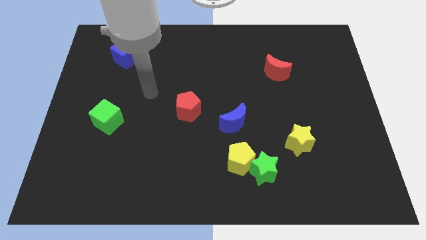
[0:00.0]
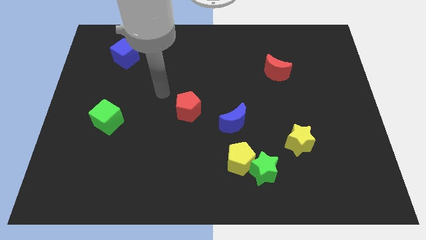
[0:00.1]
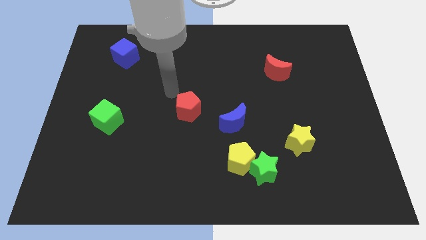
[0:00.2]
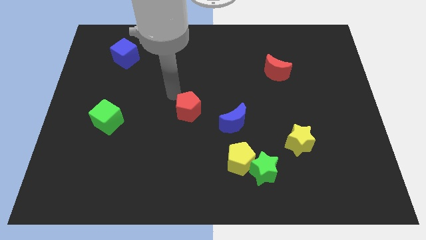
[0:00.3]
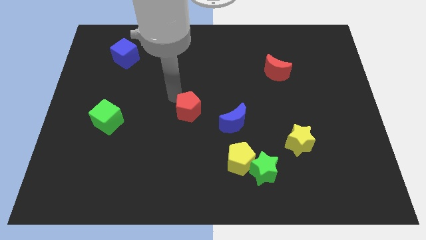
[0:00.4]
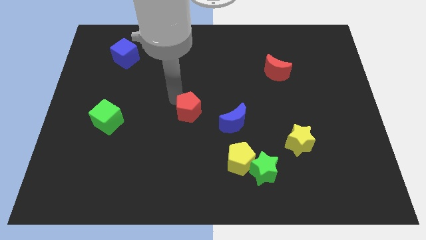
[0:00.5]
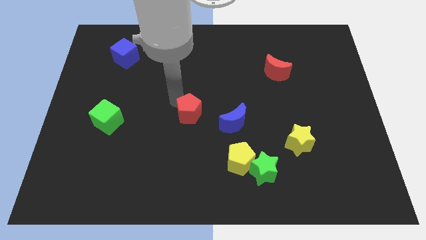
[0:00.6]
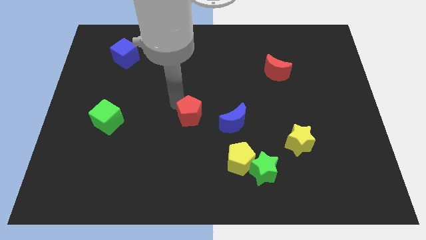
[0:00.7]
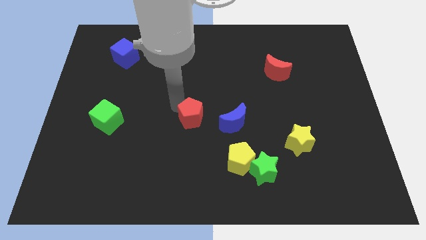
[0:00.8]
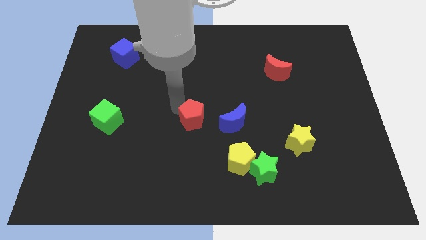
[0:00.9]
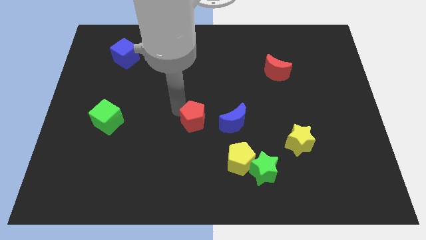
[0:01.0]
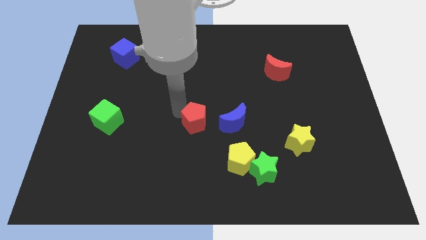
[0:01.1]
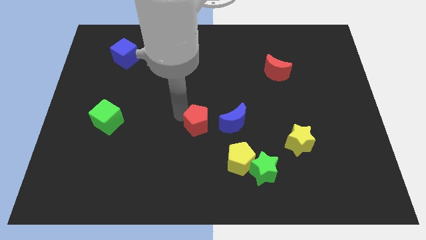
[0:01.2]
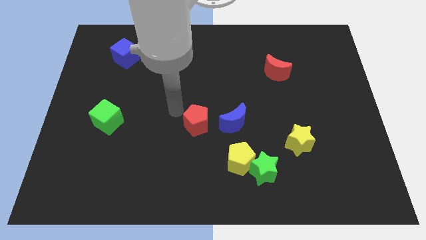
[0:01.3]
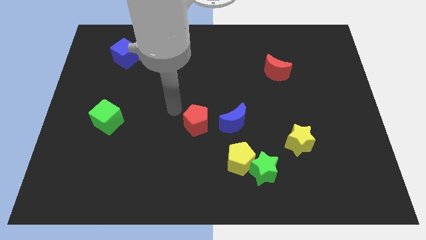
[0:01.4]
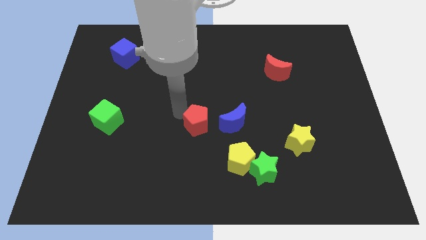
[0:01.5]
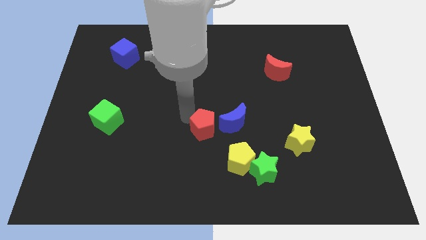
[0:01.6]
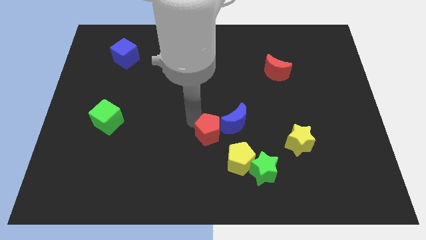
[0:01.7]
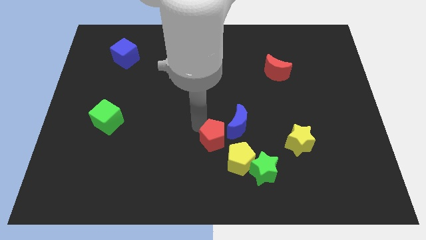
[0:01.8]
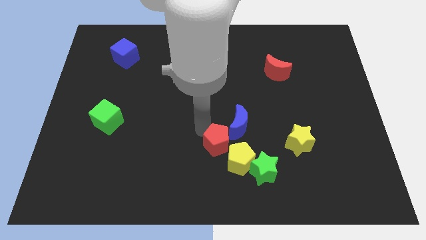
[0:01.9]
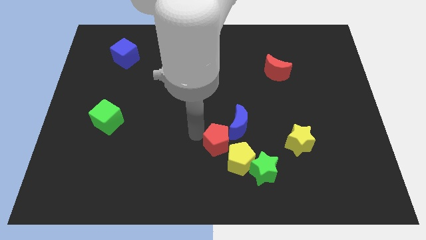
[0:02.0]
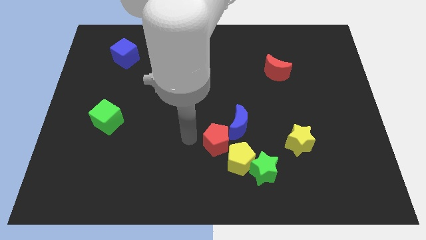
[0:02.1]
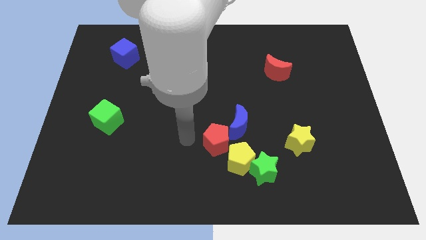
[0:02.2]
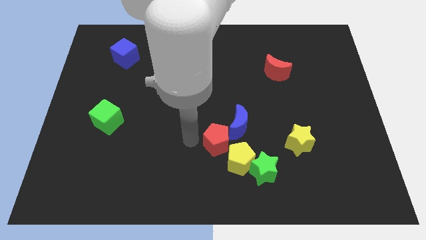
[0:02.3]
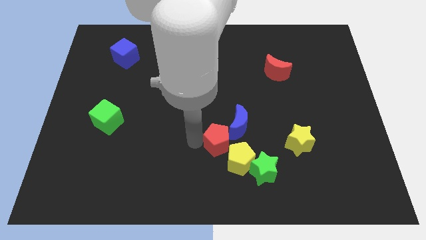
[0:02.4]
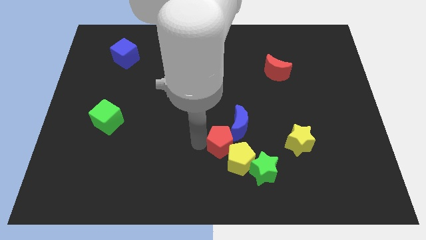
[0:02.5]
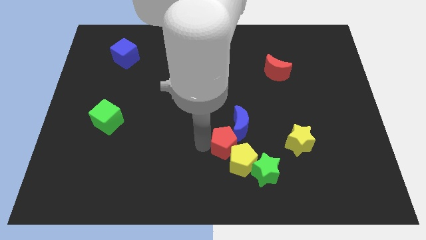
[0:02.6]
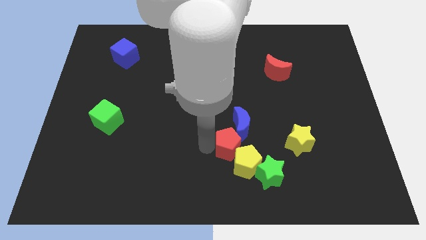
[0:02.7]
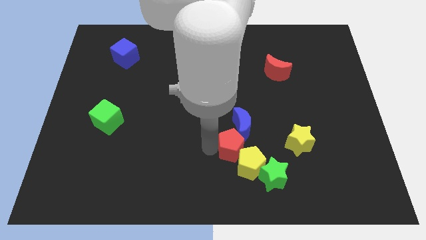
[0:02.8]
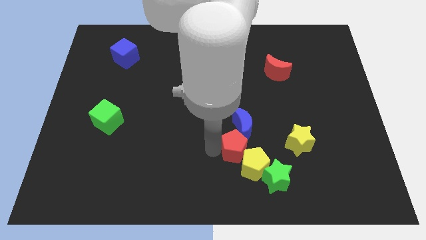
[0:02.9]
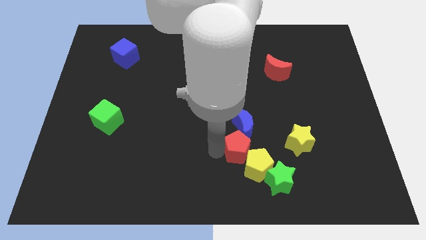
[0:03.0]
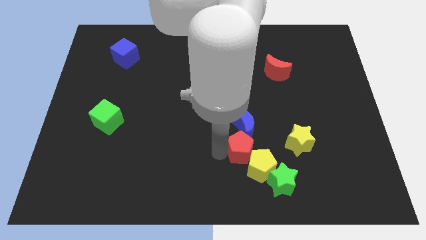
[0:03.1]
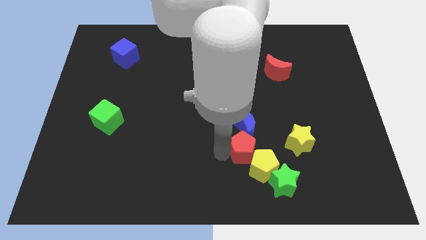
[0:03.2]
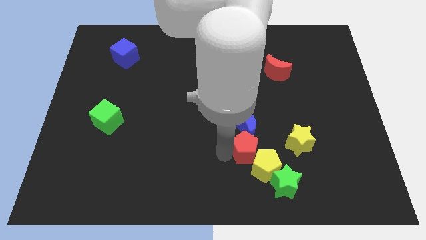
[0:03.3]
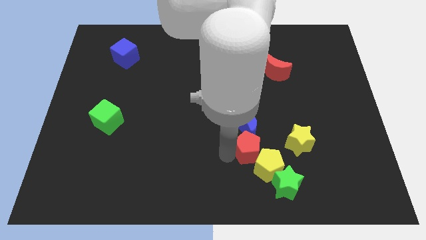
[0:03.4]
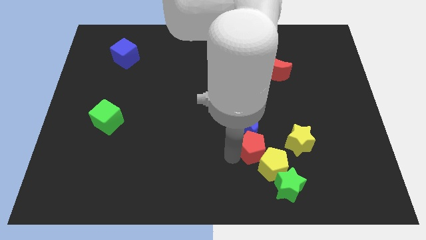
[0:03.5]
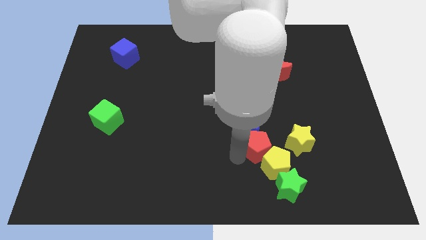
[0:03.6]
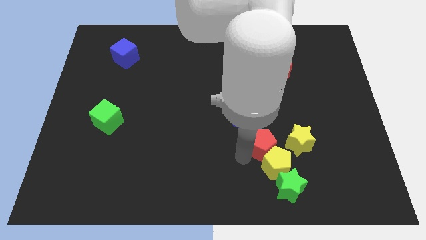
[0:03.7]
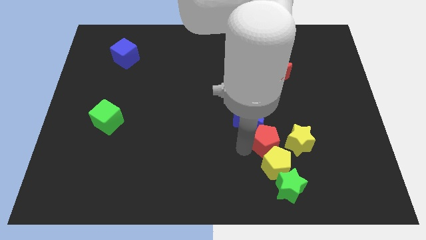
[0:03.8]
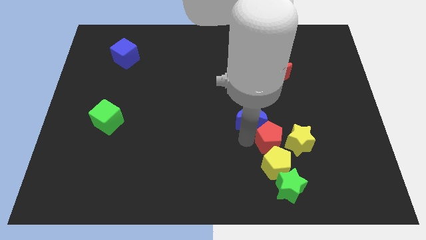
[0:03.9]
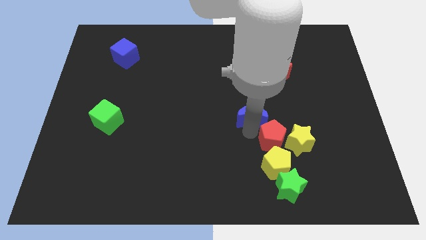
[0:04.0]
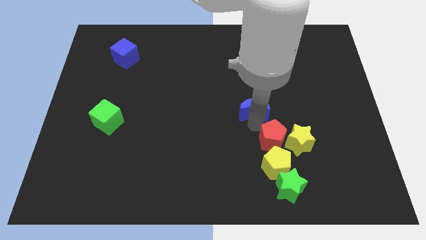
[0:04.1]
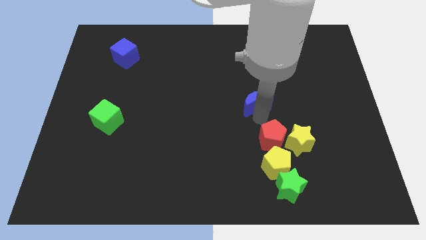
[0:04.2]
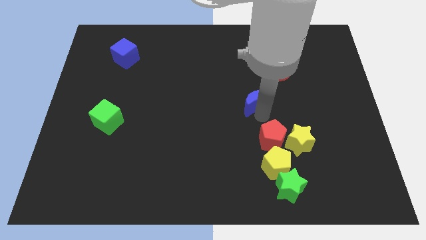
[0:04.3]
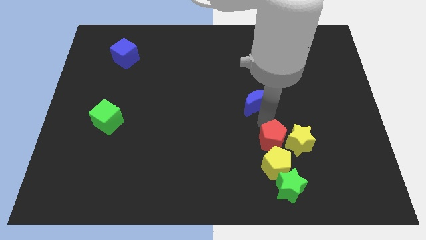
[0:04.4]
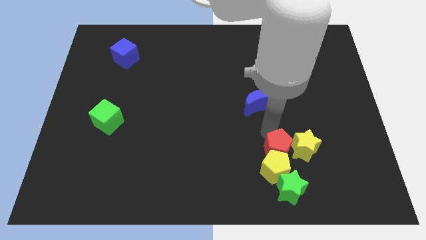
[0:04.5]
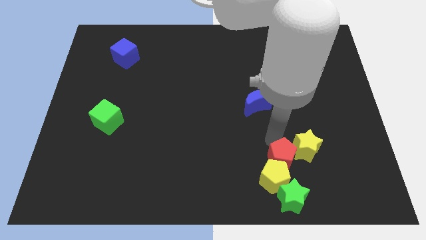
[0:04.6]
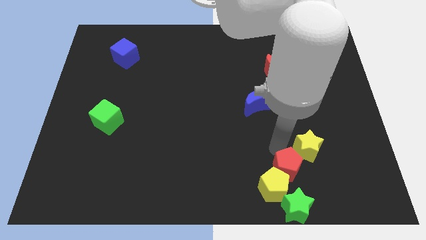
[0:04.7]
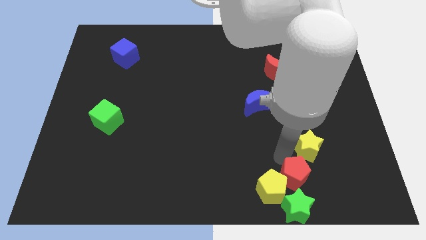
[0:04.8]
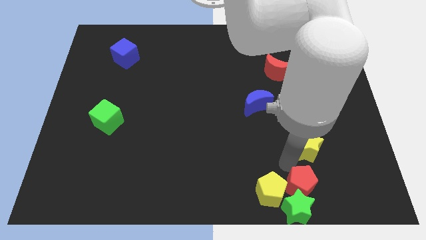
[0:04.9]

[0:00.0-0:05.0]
put the red pentagon to the green star

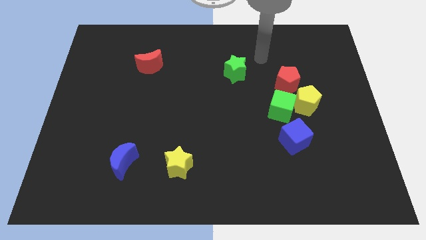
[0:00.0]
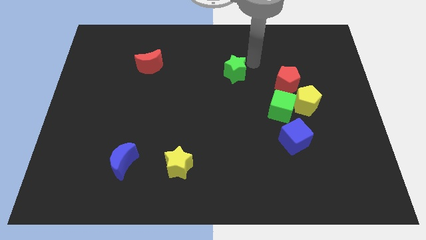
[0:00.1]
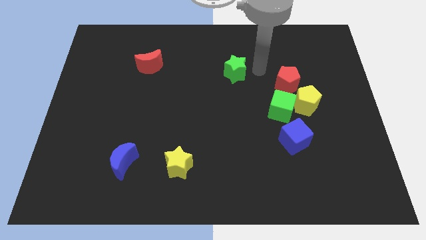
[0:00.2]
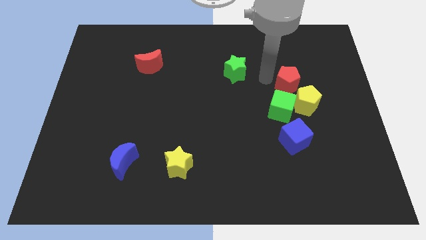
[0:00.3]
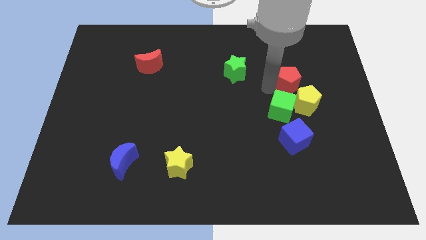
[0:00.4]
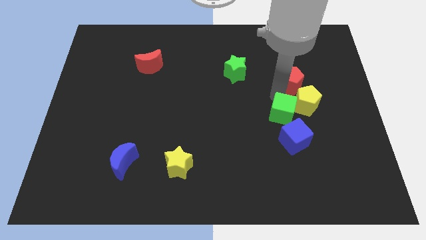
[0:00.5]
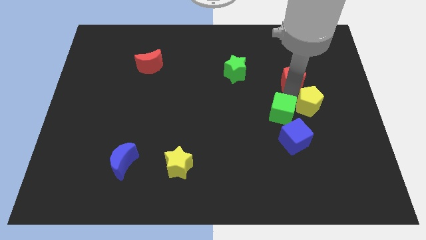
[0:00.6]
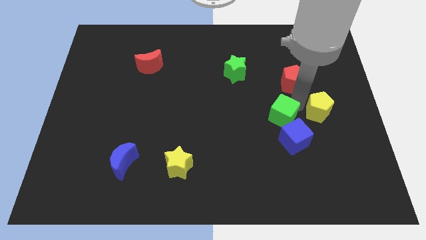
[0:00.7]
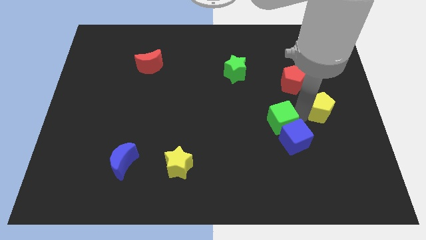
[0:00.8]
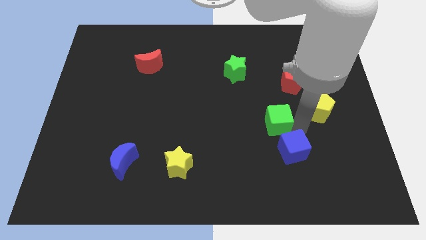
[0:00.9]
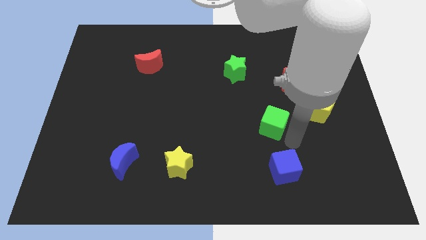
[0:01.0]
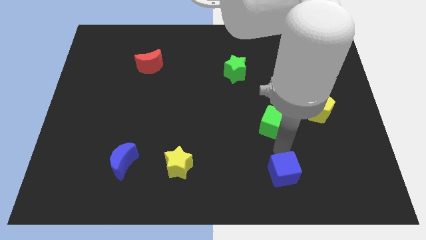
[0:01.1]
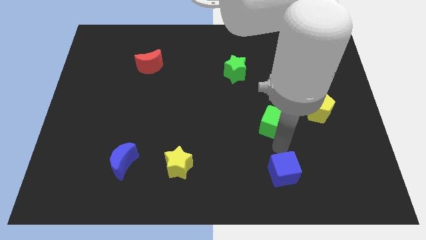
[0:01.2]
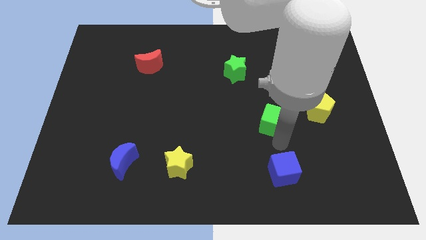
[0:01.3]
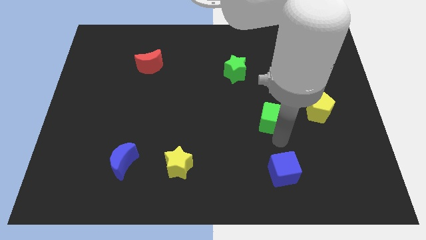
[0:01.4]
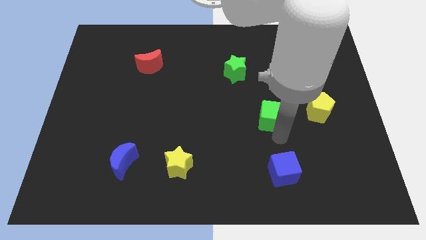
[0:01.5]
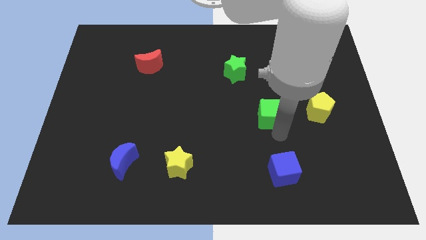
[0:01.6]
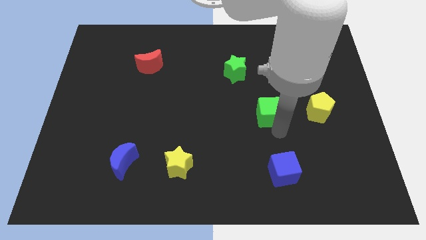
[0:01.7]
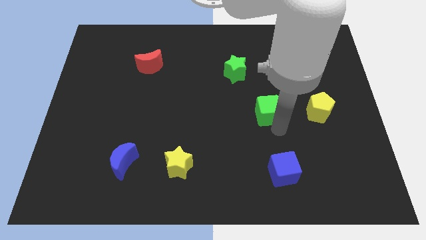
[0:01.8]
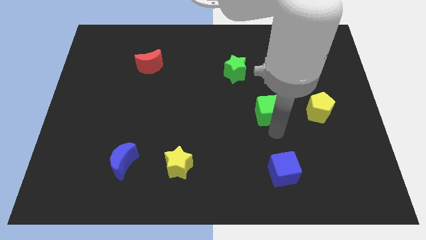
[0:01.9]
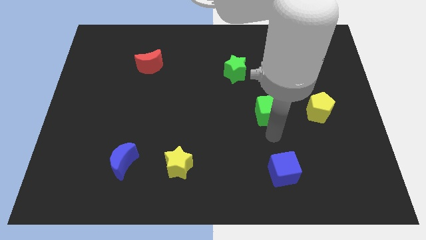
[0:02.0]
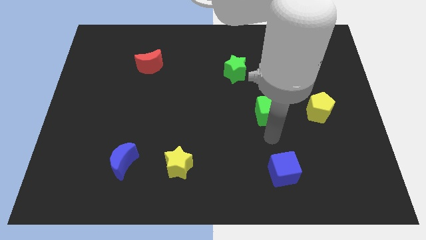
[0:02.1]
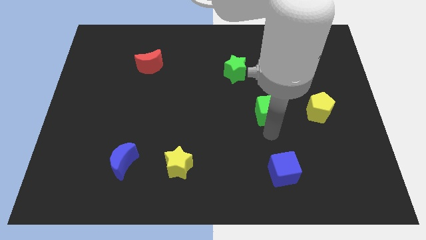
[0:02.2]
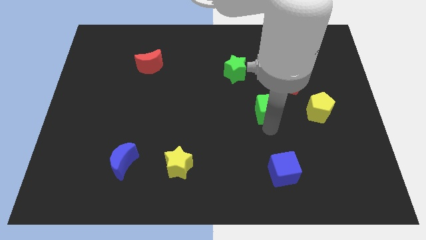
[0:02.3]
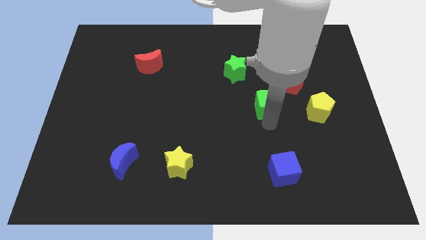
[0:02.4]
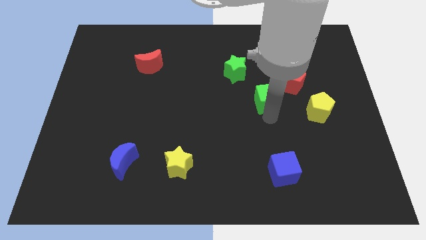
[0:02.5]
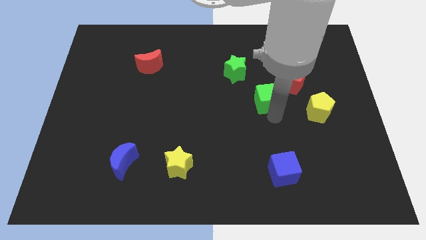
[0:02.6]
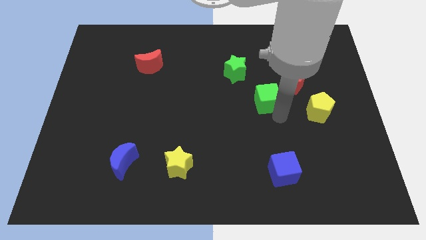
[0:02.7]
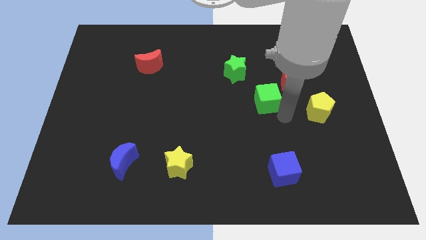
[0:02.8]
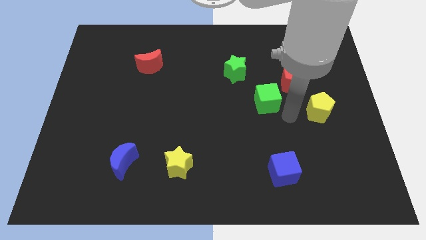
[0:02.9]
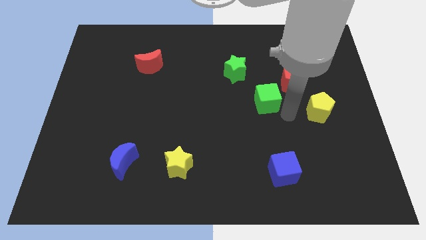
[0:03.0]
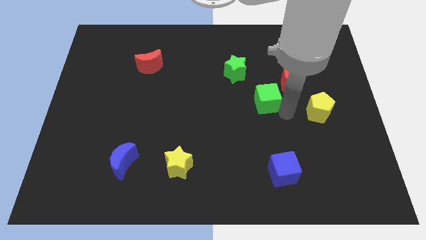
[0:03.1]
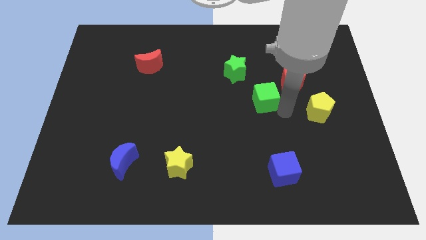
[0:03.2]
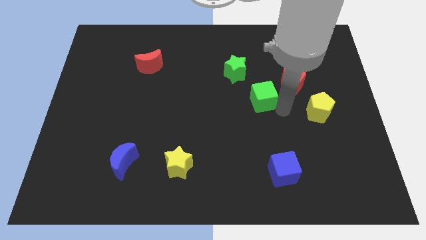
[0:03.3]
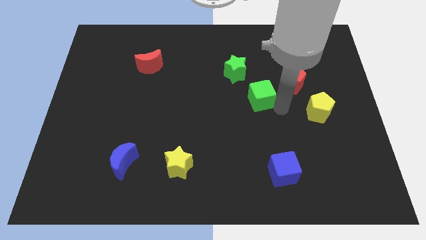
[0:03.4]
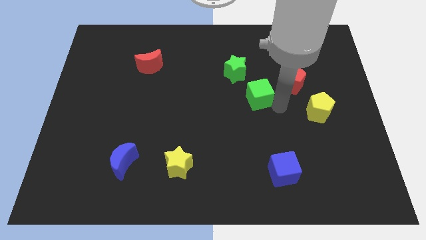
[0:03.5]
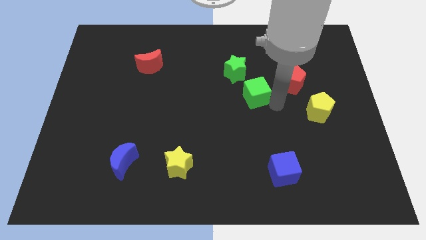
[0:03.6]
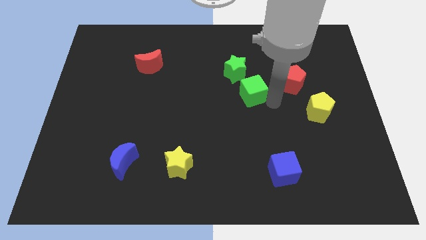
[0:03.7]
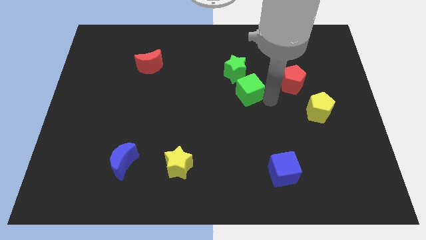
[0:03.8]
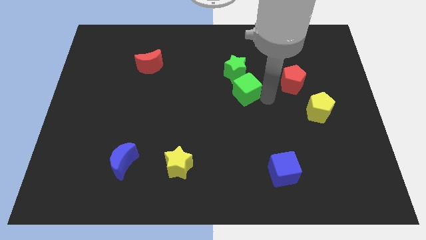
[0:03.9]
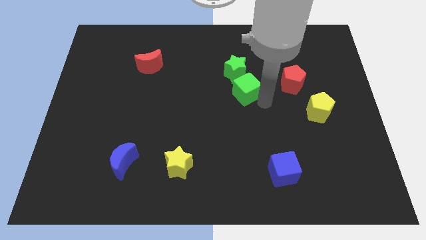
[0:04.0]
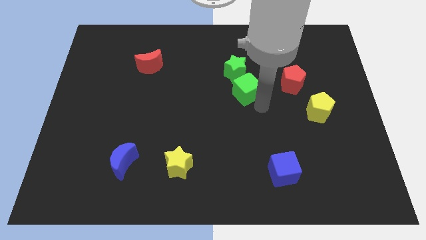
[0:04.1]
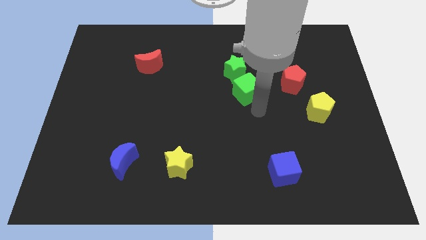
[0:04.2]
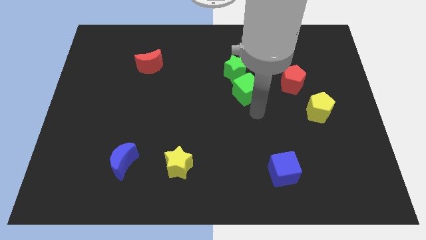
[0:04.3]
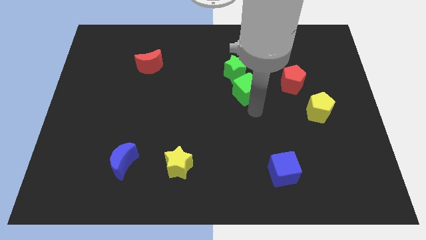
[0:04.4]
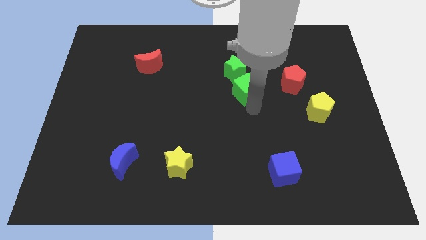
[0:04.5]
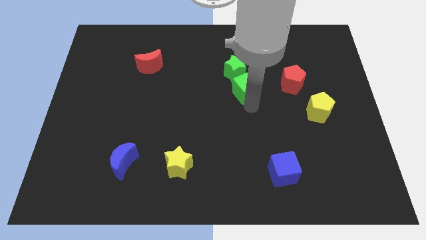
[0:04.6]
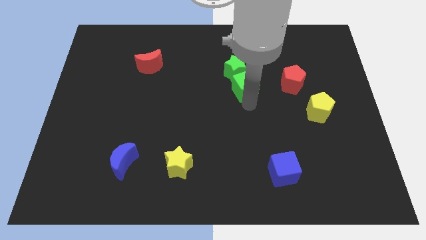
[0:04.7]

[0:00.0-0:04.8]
put the green cube to the green star
